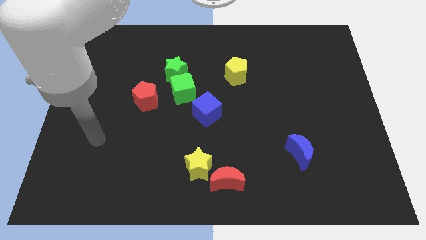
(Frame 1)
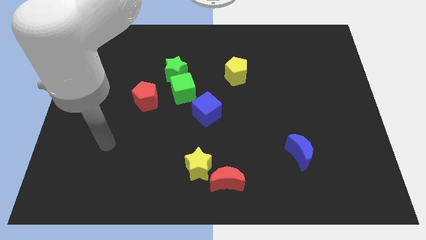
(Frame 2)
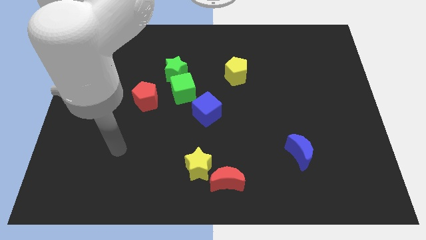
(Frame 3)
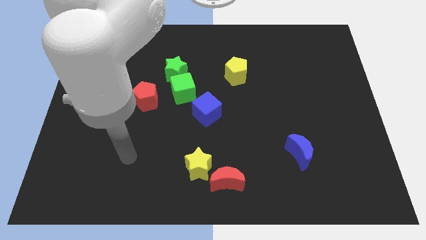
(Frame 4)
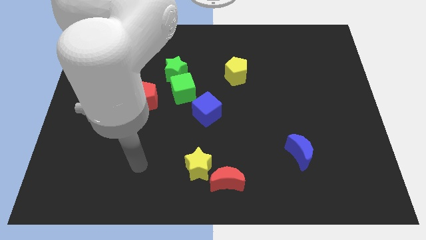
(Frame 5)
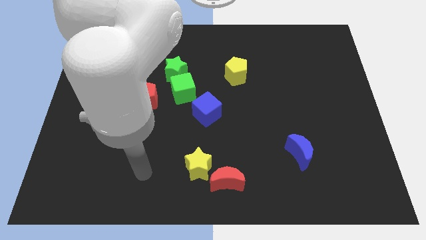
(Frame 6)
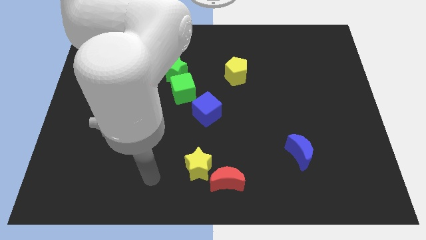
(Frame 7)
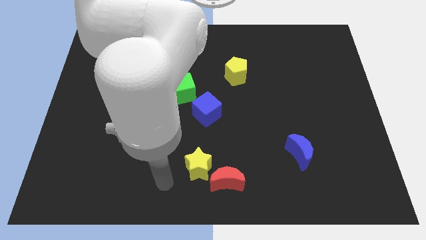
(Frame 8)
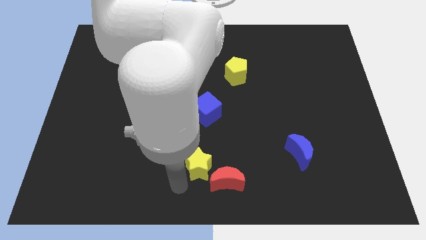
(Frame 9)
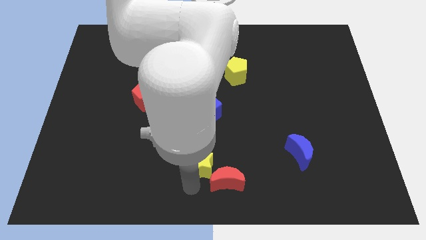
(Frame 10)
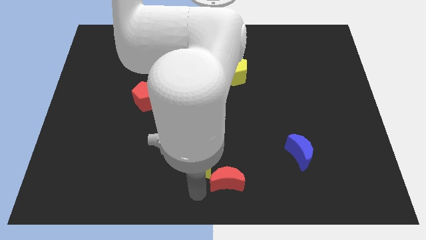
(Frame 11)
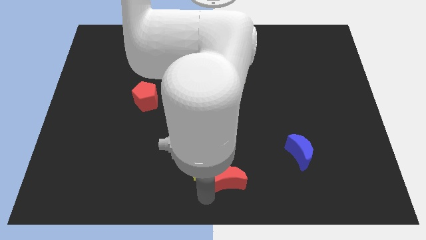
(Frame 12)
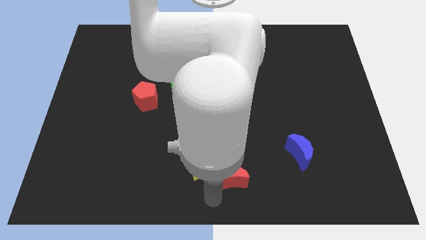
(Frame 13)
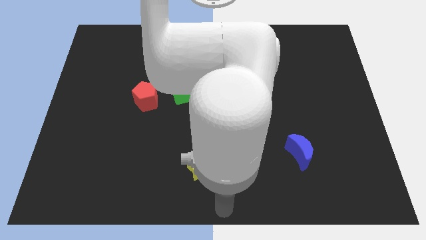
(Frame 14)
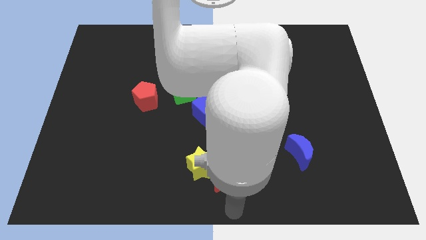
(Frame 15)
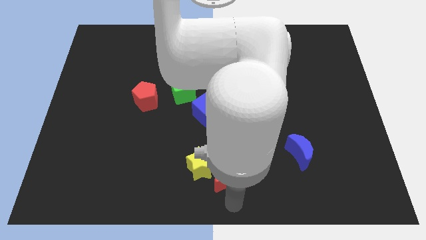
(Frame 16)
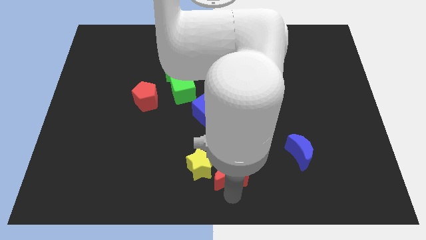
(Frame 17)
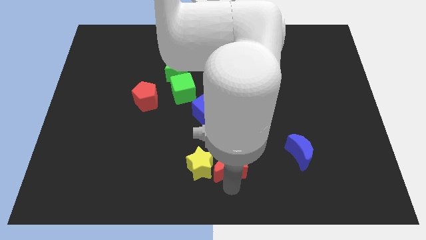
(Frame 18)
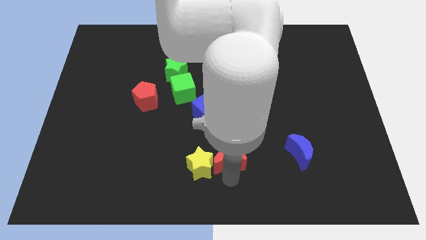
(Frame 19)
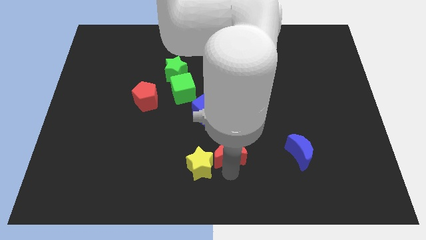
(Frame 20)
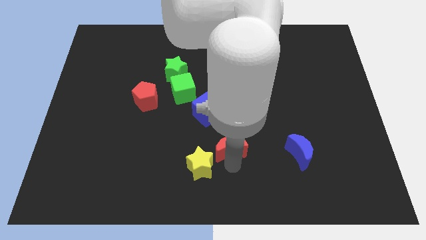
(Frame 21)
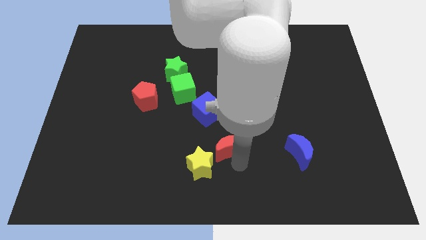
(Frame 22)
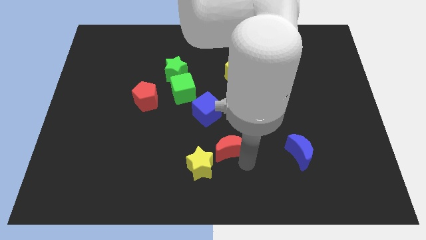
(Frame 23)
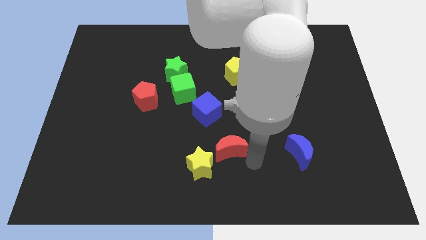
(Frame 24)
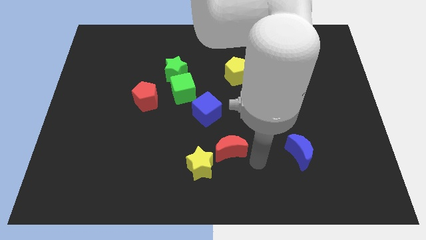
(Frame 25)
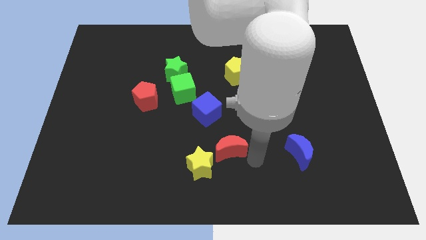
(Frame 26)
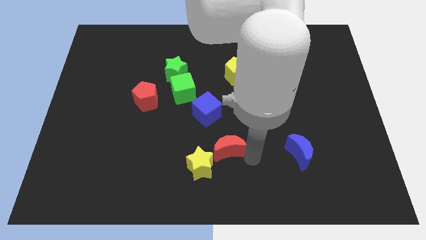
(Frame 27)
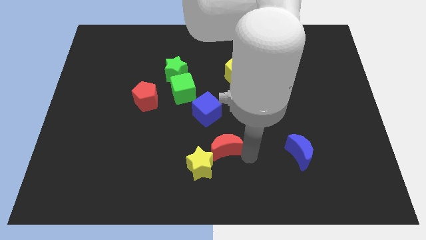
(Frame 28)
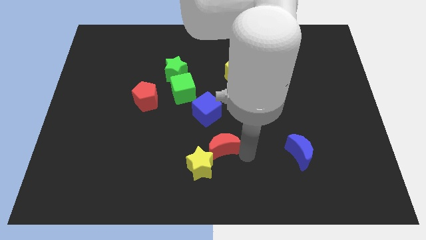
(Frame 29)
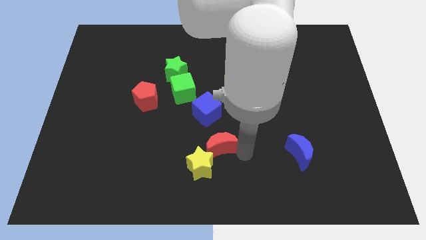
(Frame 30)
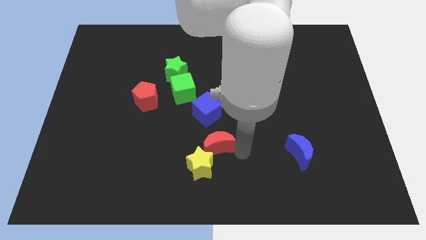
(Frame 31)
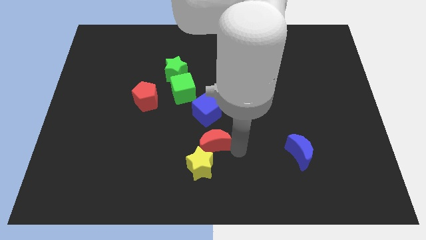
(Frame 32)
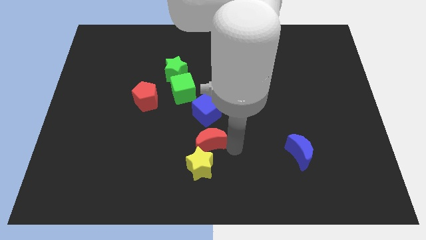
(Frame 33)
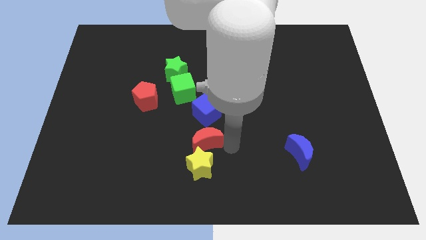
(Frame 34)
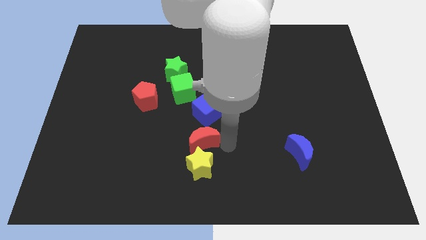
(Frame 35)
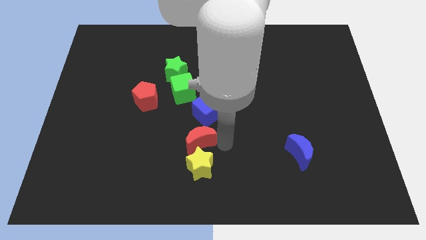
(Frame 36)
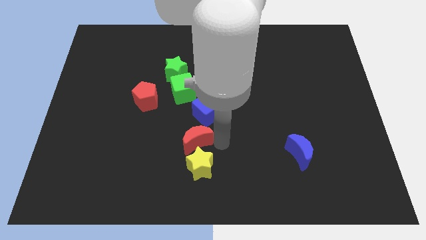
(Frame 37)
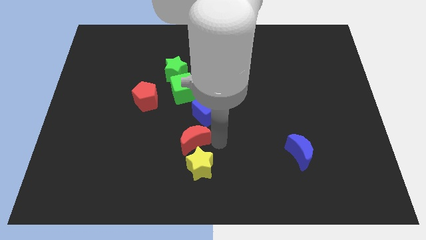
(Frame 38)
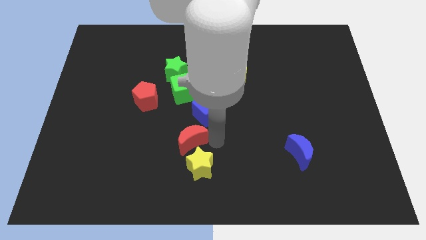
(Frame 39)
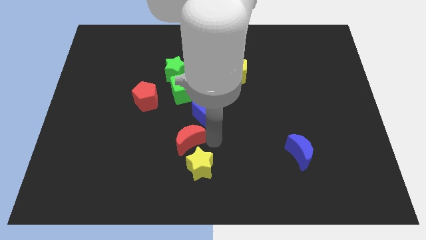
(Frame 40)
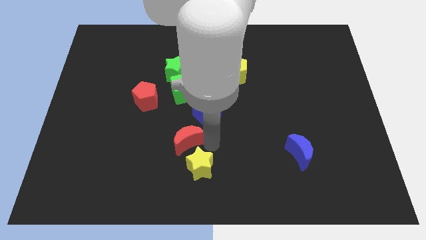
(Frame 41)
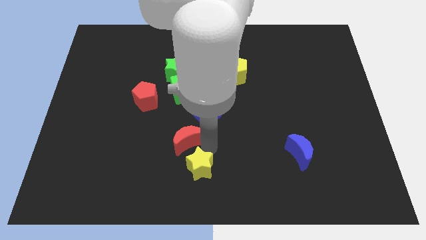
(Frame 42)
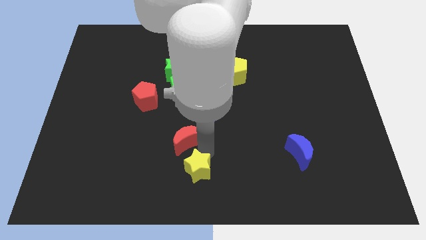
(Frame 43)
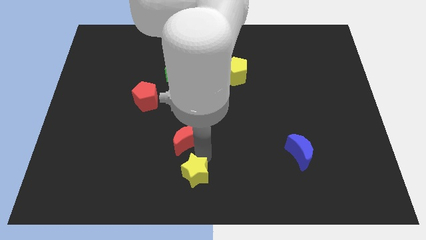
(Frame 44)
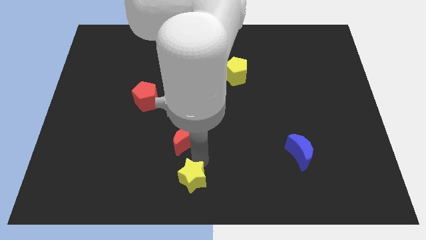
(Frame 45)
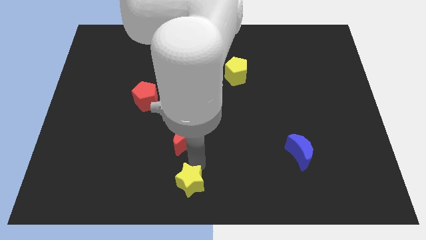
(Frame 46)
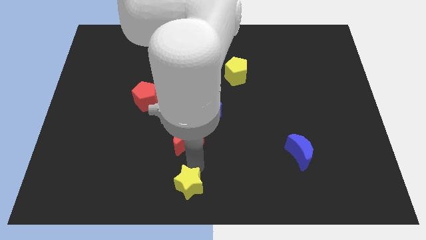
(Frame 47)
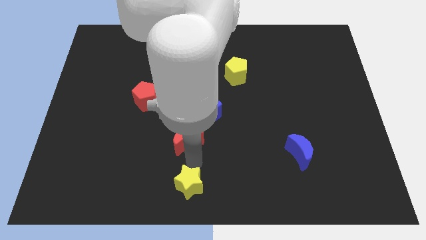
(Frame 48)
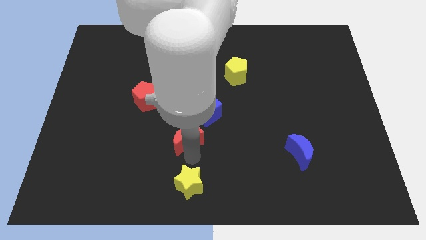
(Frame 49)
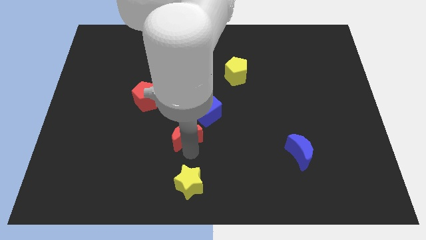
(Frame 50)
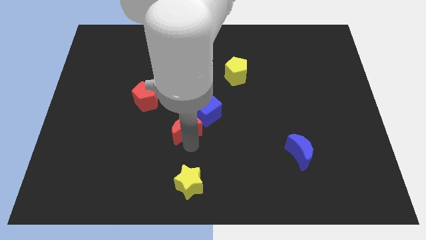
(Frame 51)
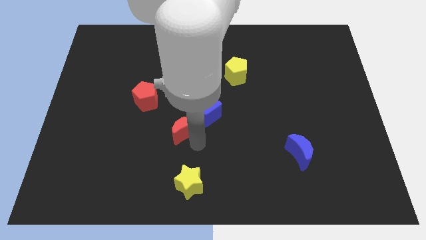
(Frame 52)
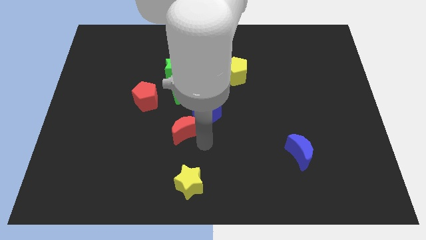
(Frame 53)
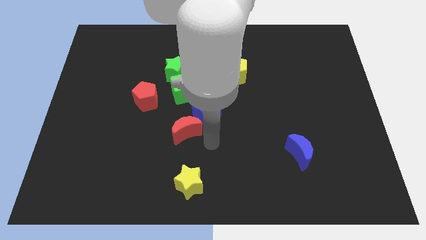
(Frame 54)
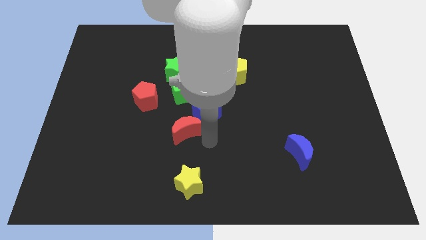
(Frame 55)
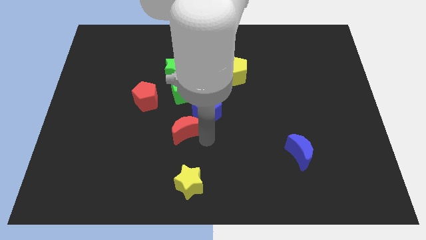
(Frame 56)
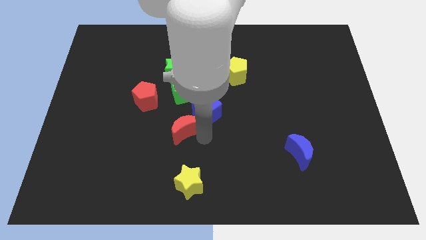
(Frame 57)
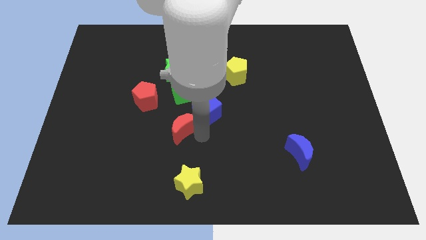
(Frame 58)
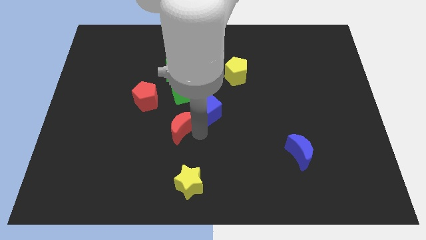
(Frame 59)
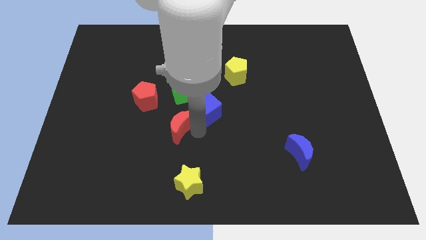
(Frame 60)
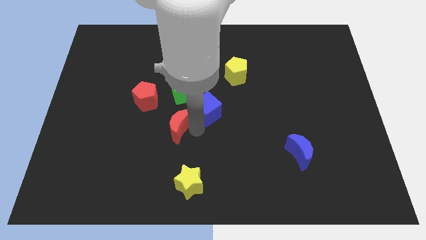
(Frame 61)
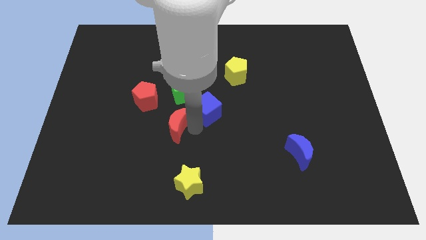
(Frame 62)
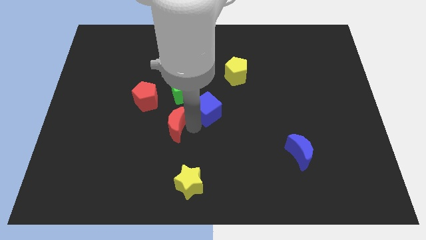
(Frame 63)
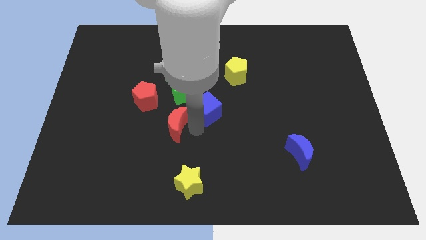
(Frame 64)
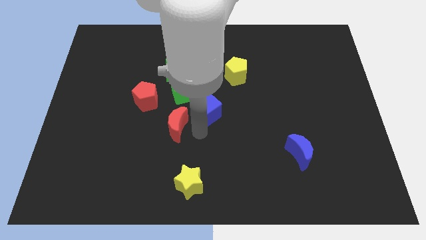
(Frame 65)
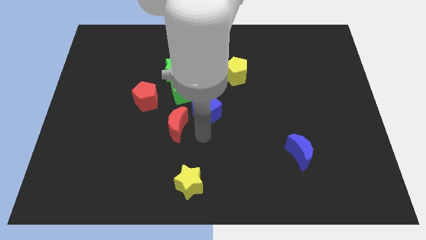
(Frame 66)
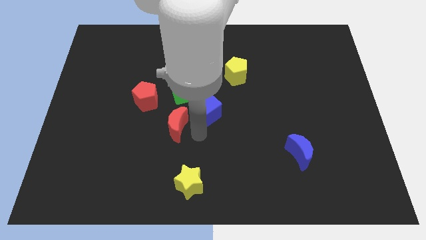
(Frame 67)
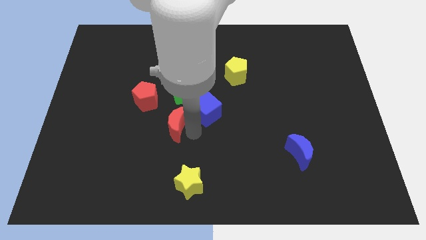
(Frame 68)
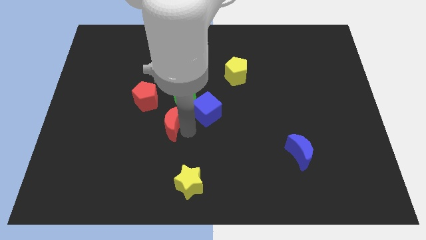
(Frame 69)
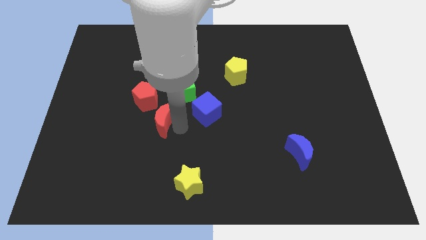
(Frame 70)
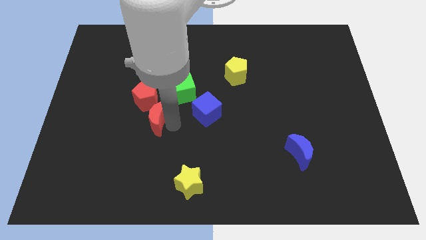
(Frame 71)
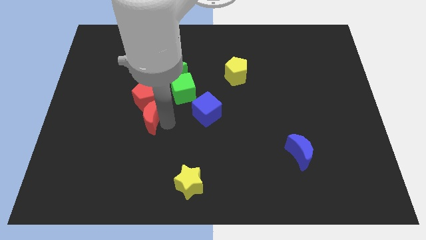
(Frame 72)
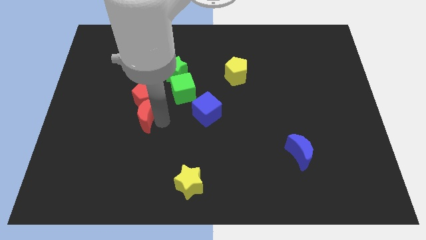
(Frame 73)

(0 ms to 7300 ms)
move the red moon to the bottom left side of the red pentagon
